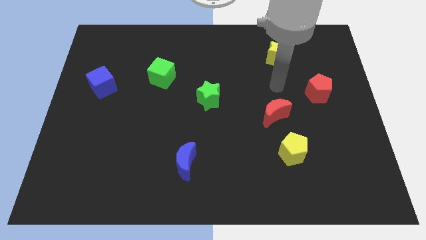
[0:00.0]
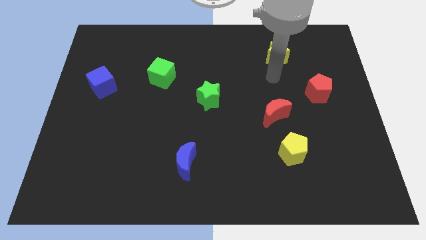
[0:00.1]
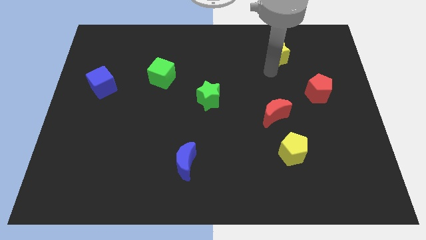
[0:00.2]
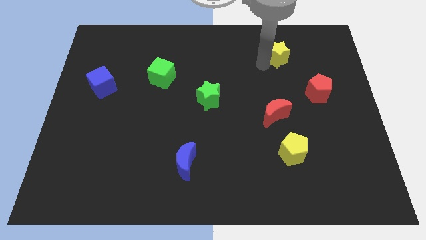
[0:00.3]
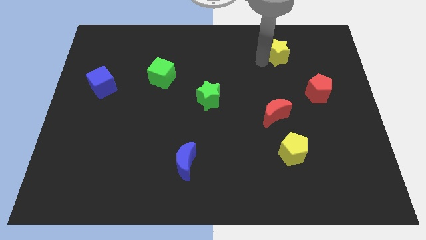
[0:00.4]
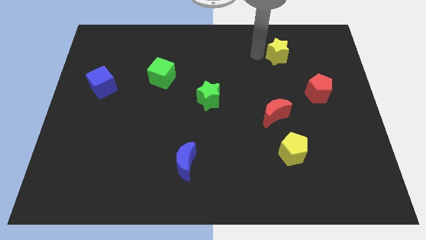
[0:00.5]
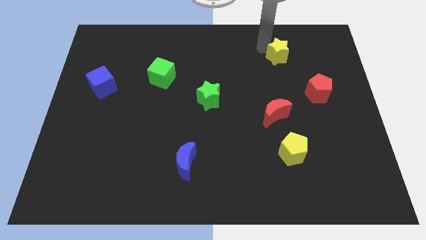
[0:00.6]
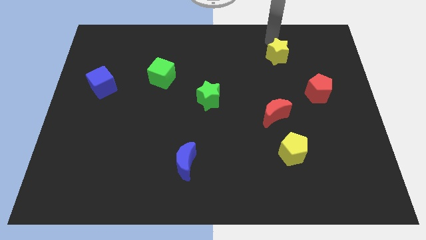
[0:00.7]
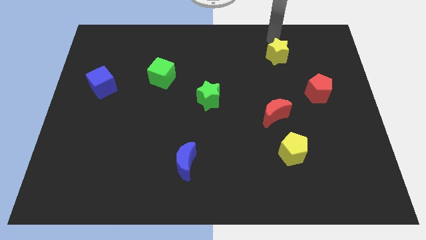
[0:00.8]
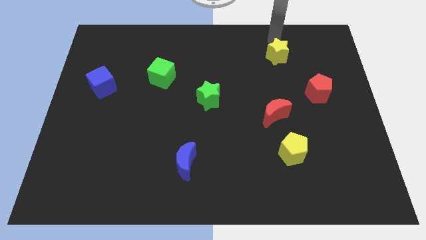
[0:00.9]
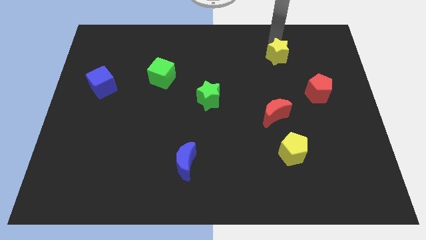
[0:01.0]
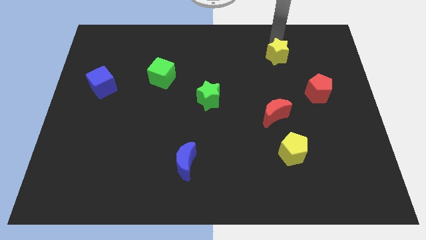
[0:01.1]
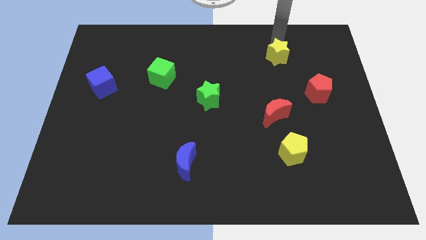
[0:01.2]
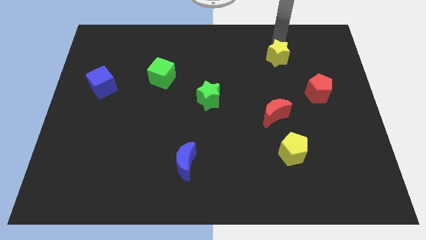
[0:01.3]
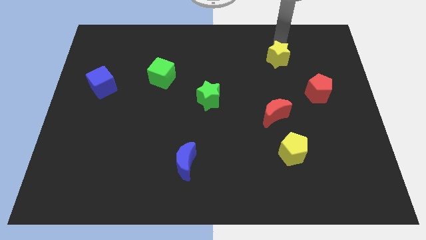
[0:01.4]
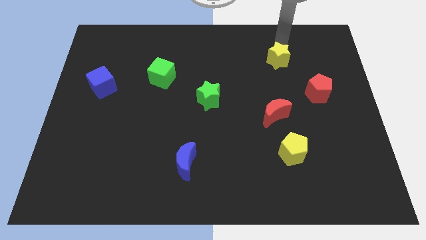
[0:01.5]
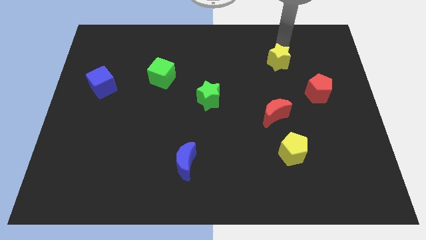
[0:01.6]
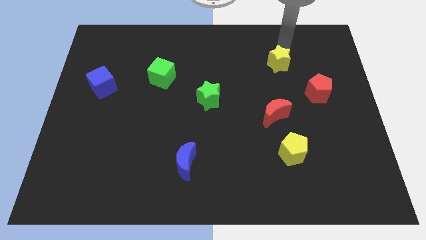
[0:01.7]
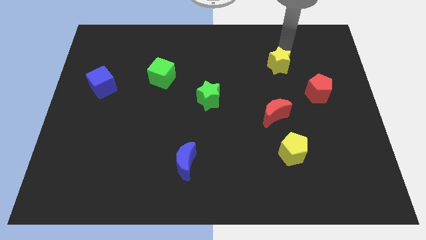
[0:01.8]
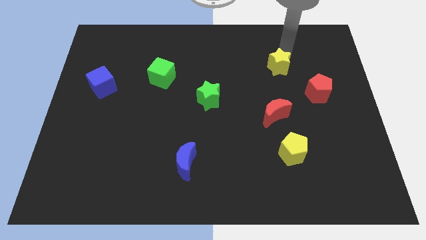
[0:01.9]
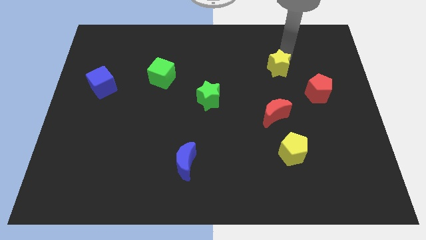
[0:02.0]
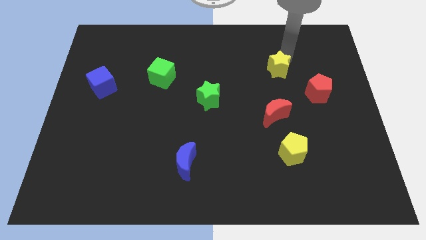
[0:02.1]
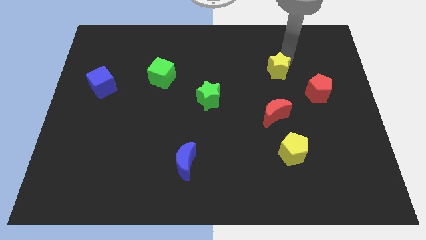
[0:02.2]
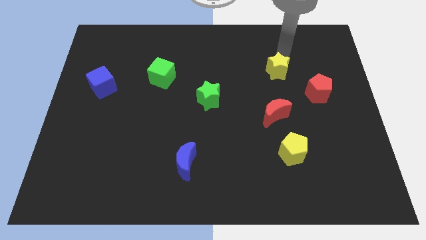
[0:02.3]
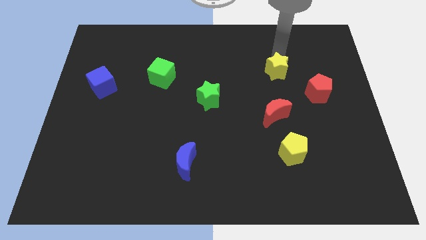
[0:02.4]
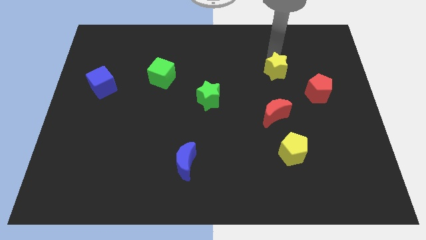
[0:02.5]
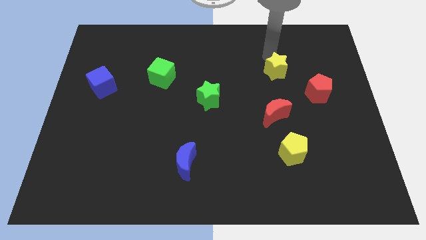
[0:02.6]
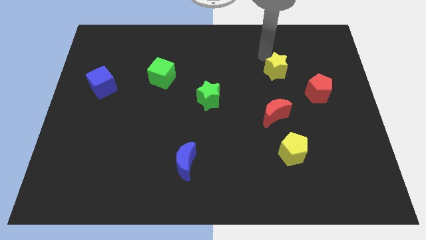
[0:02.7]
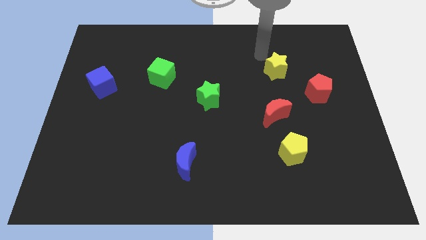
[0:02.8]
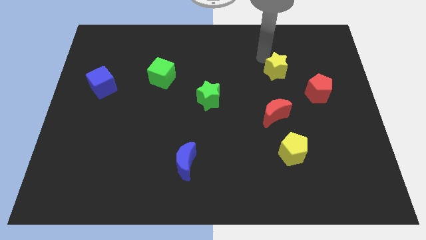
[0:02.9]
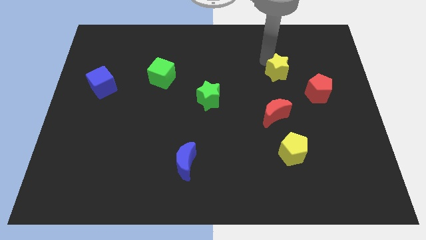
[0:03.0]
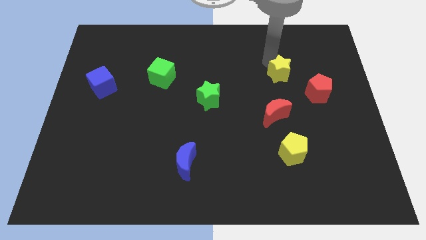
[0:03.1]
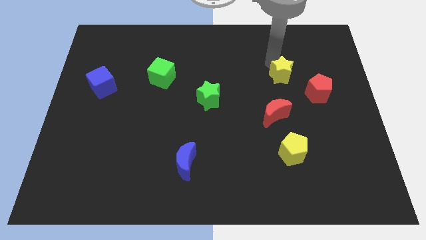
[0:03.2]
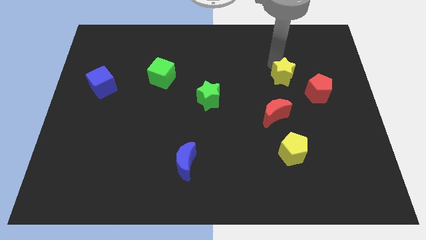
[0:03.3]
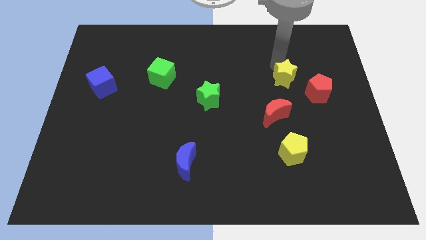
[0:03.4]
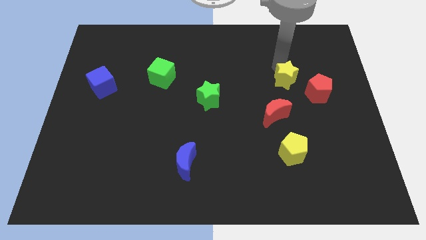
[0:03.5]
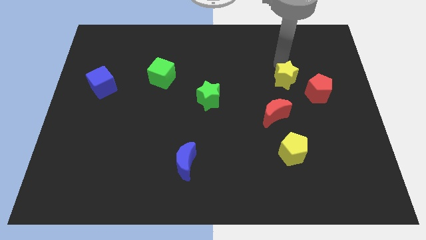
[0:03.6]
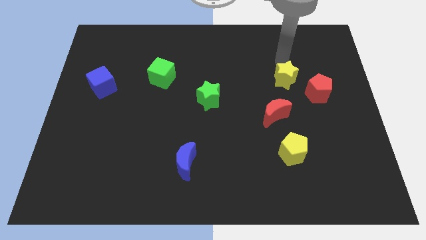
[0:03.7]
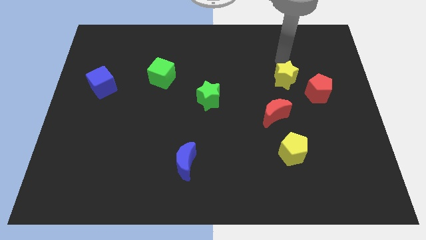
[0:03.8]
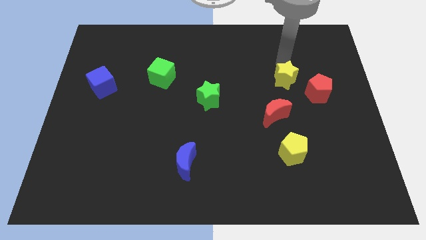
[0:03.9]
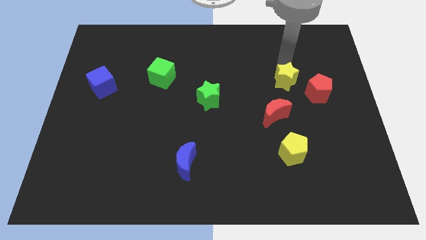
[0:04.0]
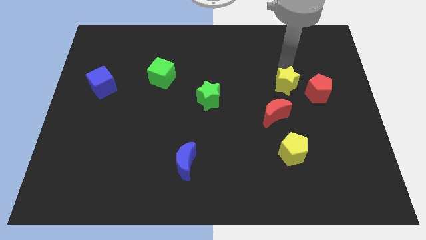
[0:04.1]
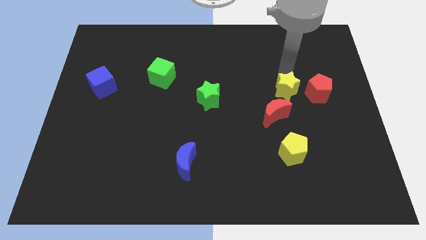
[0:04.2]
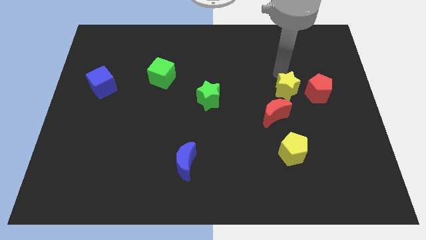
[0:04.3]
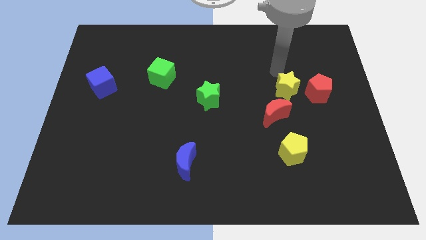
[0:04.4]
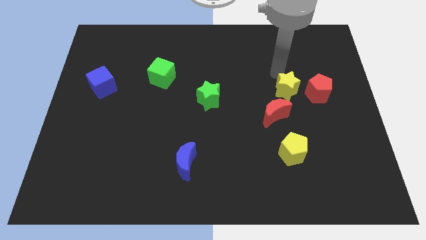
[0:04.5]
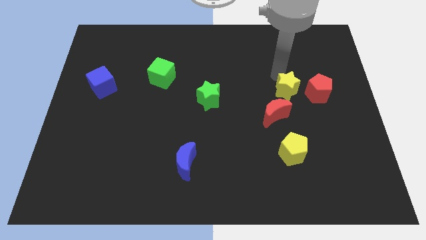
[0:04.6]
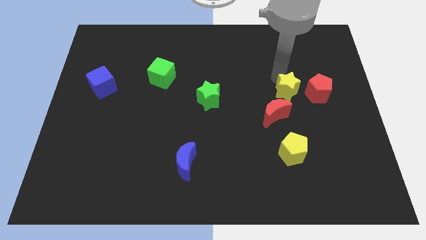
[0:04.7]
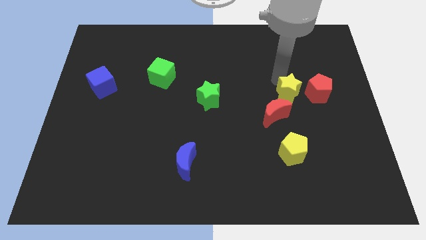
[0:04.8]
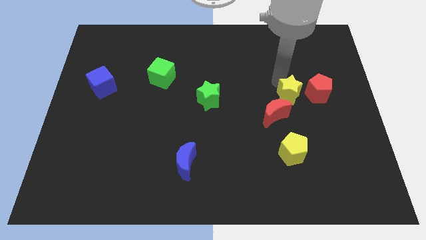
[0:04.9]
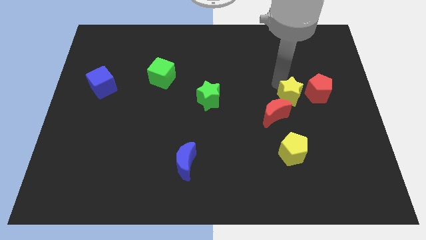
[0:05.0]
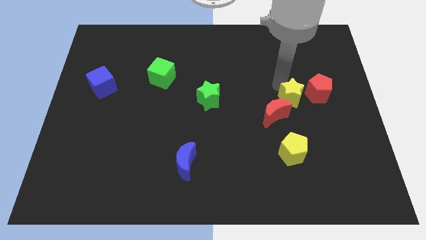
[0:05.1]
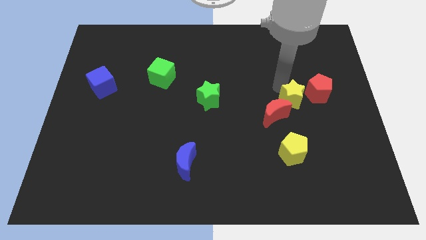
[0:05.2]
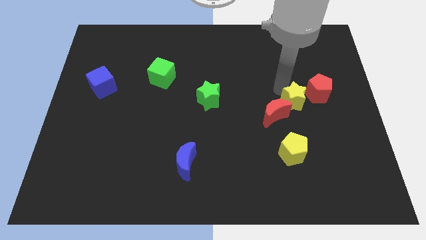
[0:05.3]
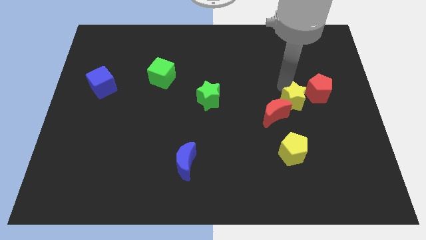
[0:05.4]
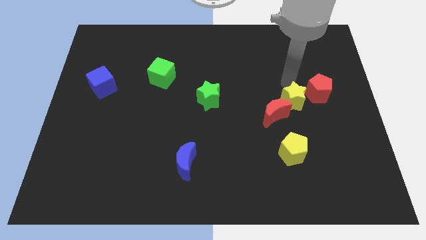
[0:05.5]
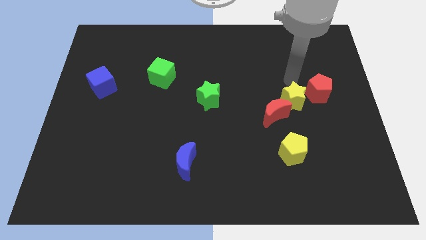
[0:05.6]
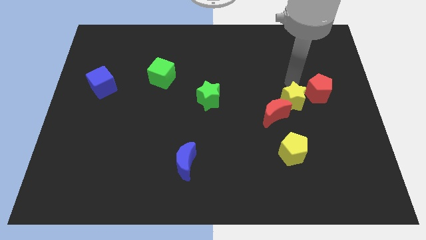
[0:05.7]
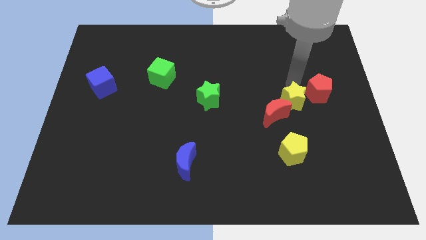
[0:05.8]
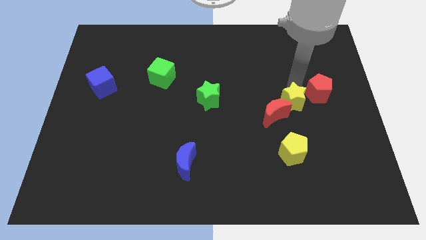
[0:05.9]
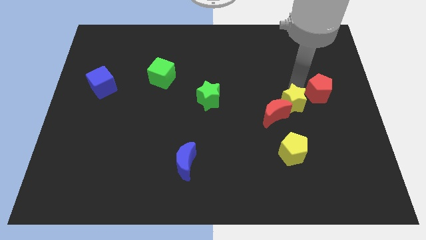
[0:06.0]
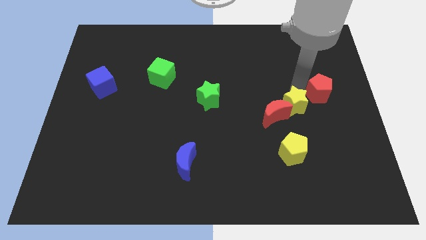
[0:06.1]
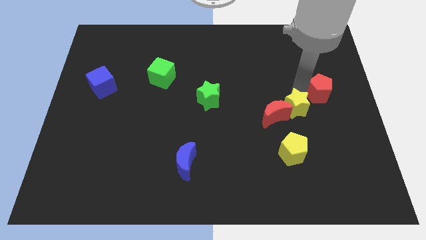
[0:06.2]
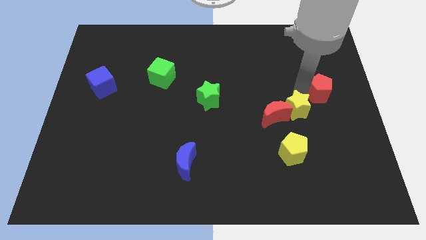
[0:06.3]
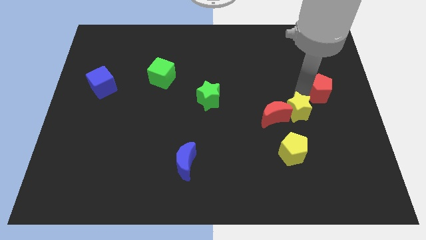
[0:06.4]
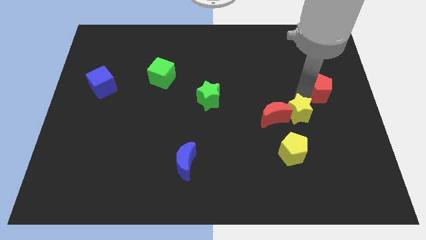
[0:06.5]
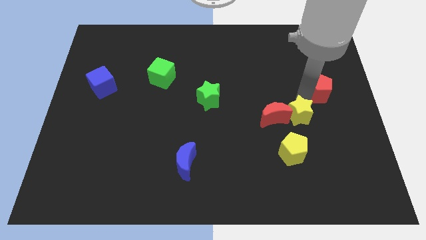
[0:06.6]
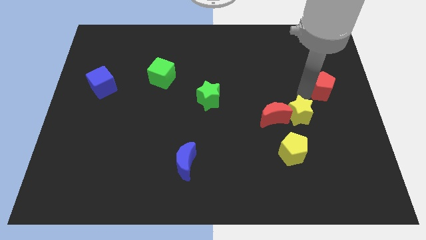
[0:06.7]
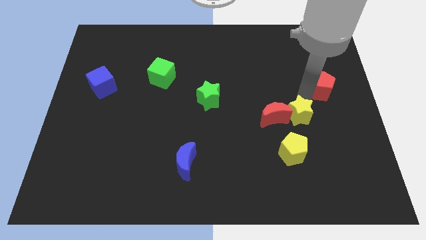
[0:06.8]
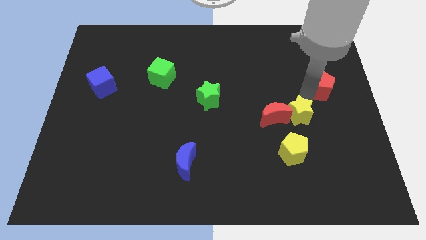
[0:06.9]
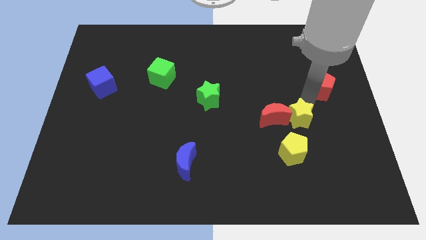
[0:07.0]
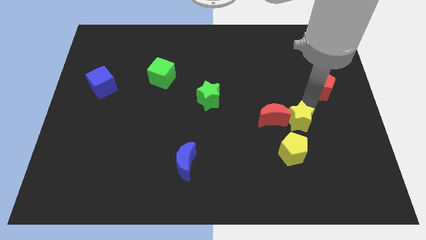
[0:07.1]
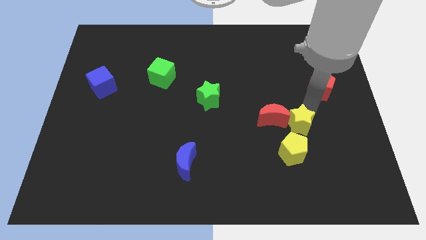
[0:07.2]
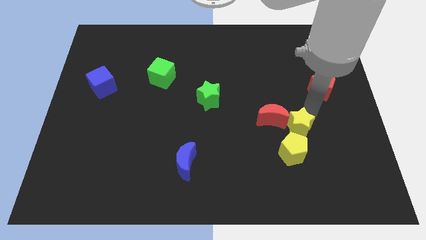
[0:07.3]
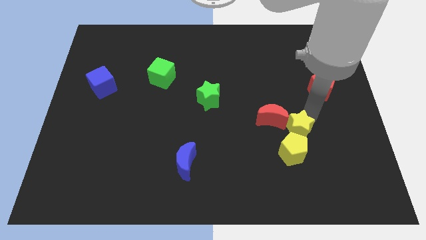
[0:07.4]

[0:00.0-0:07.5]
put the yellow star to the yellow pentagon

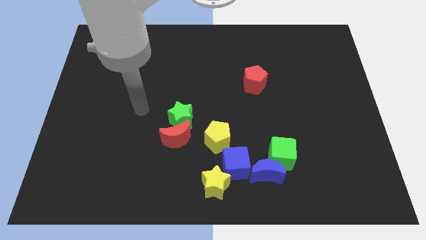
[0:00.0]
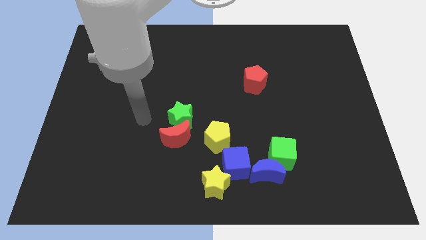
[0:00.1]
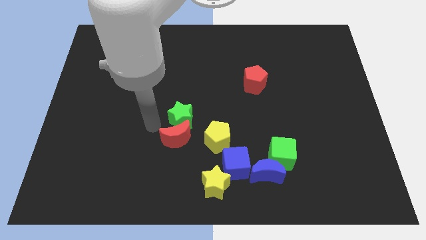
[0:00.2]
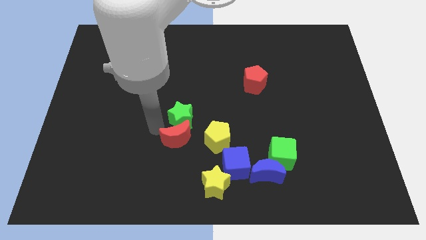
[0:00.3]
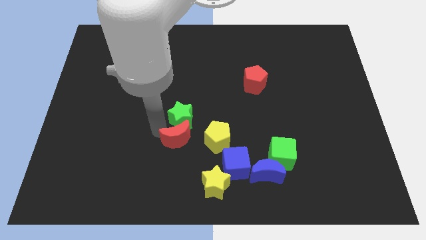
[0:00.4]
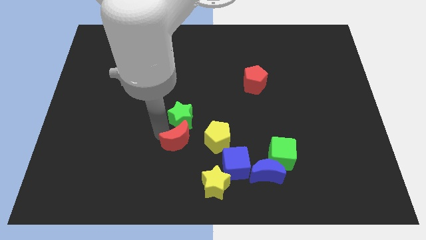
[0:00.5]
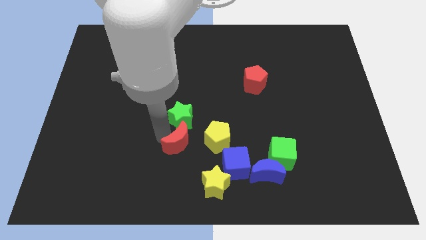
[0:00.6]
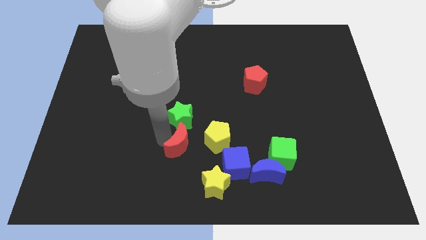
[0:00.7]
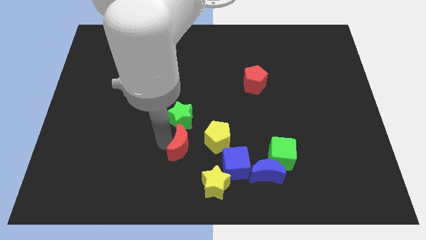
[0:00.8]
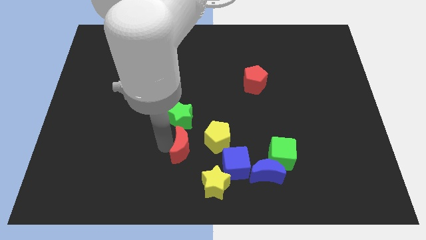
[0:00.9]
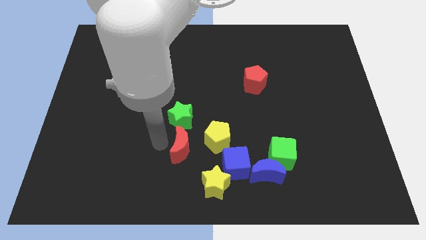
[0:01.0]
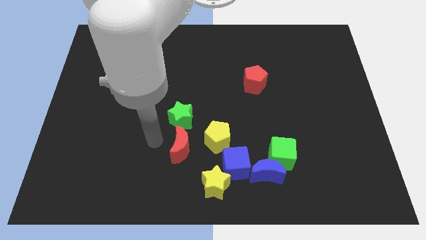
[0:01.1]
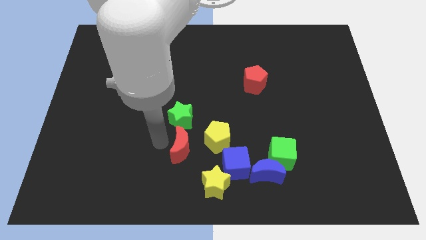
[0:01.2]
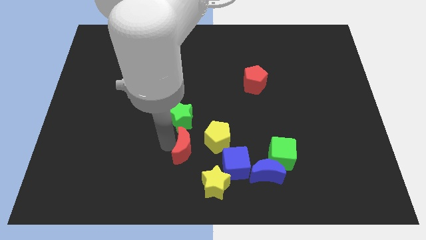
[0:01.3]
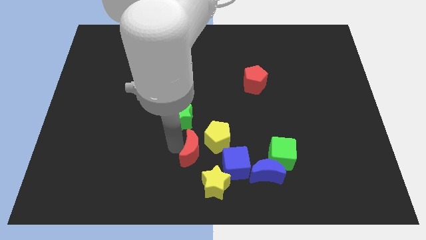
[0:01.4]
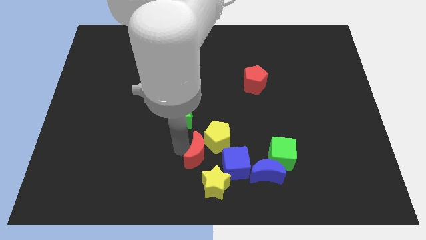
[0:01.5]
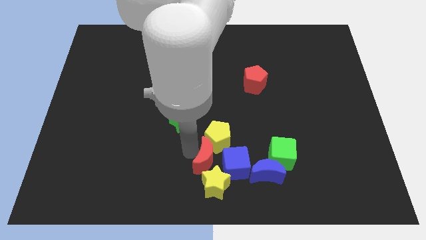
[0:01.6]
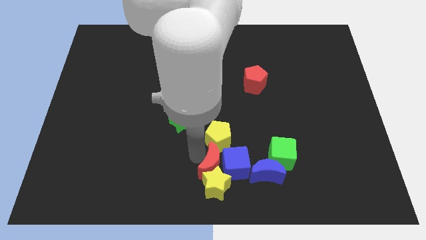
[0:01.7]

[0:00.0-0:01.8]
slide the red moon to the blue cube
